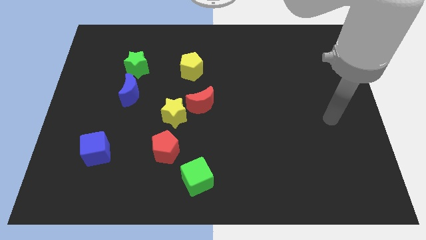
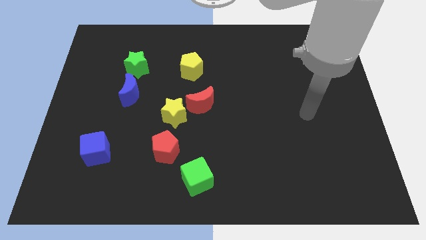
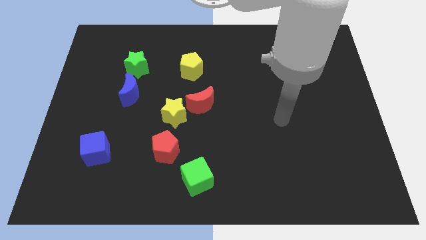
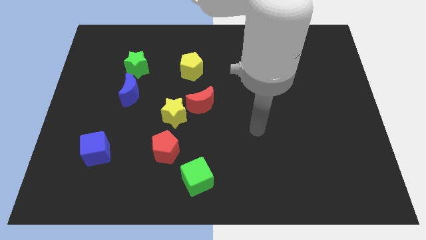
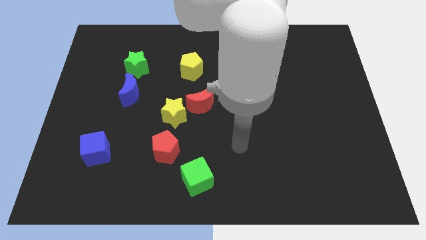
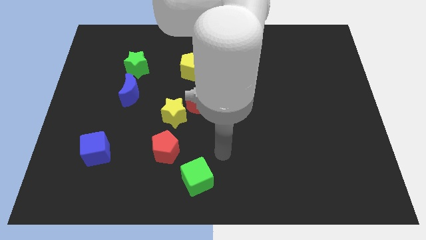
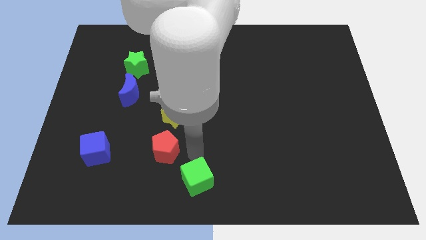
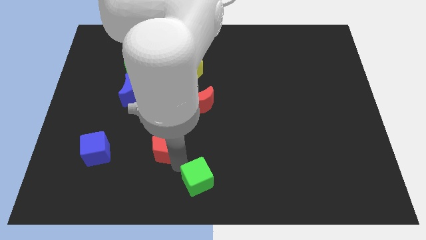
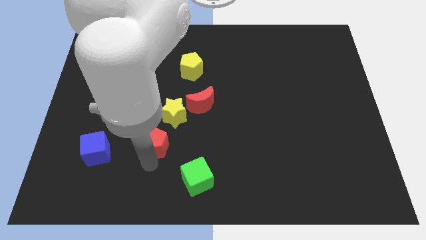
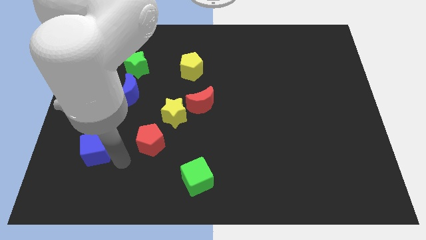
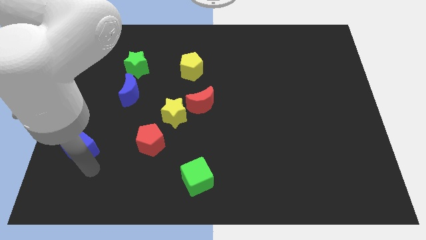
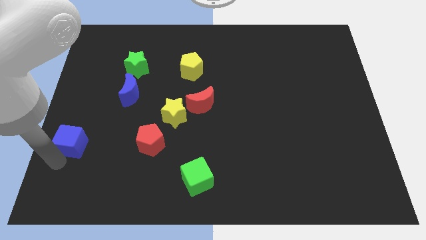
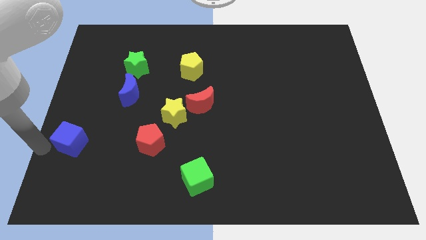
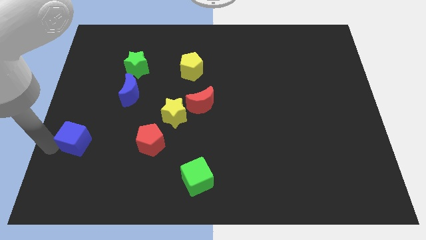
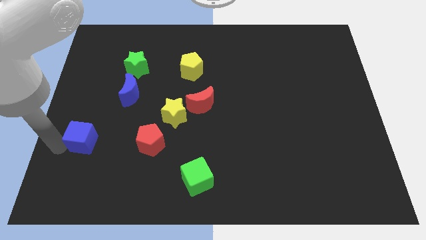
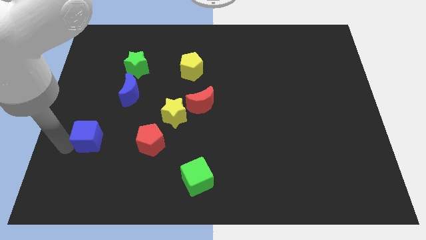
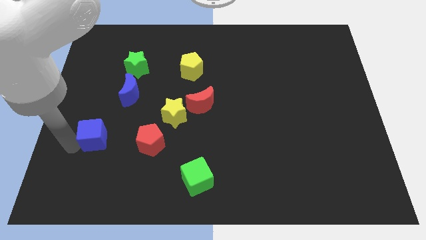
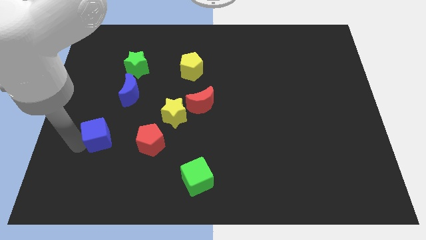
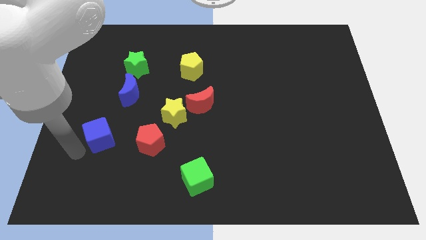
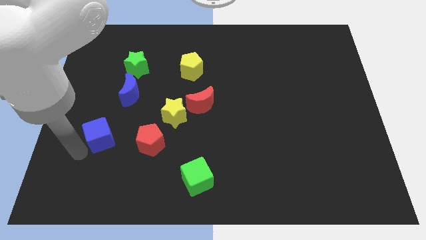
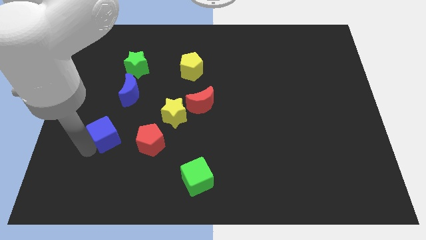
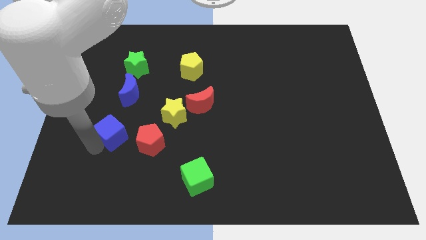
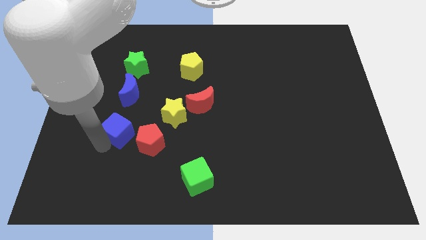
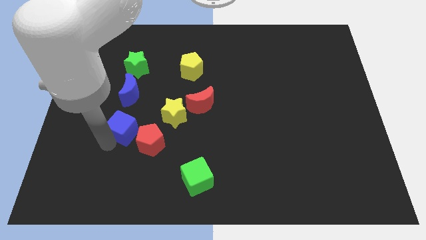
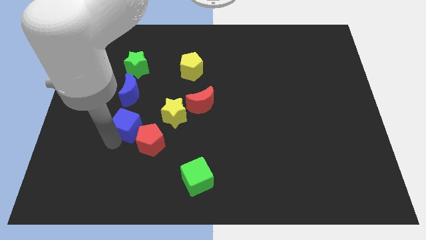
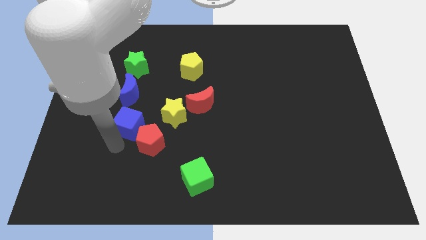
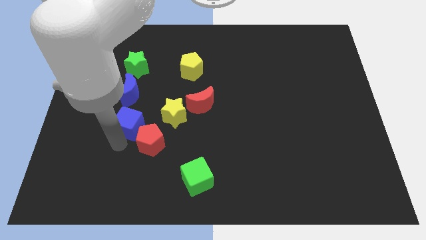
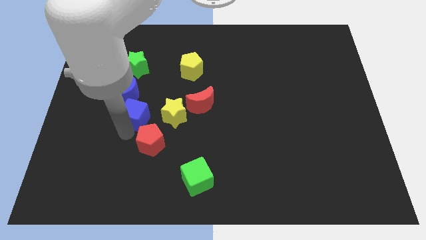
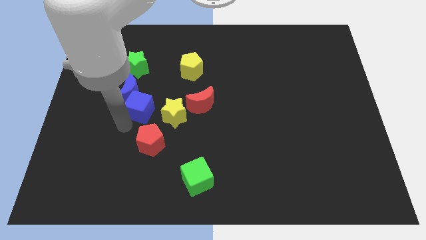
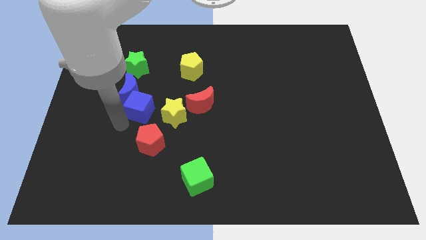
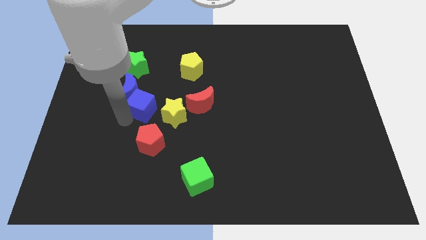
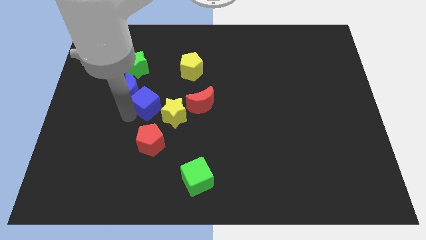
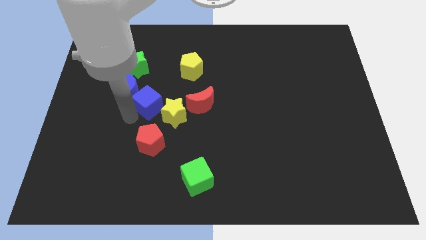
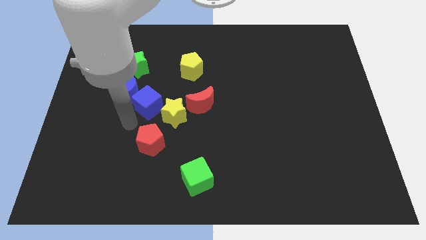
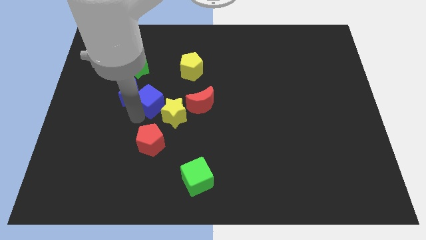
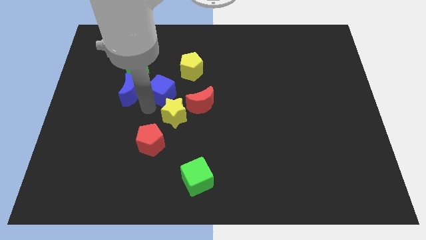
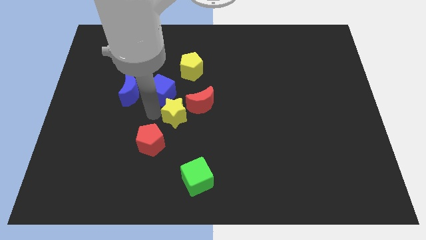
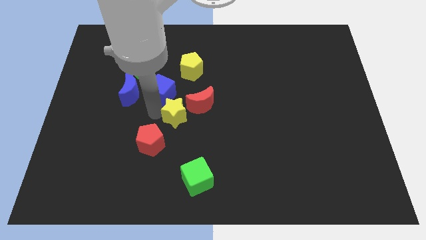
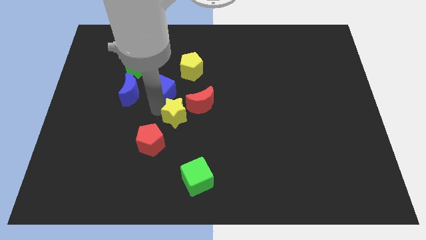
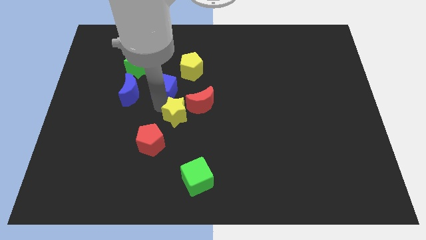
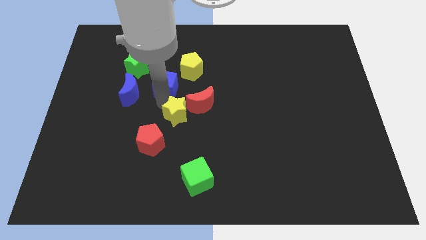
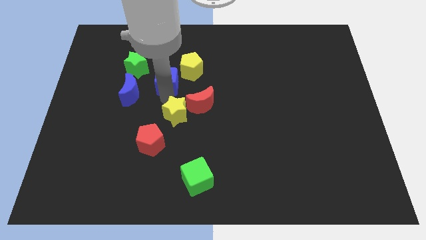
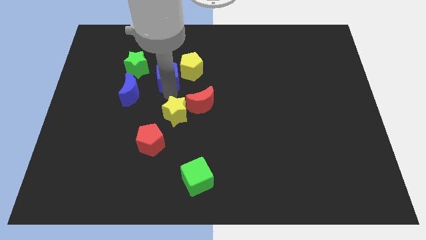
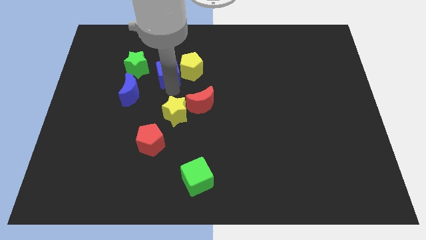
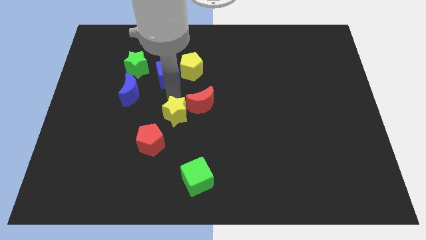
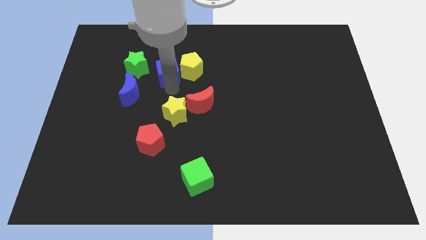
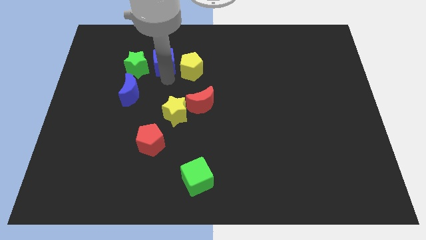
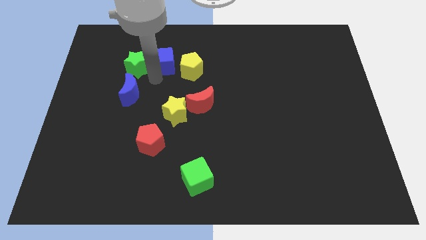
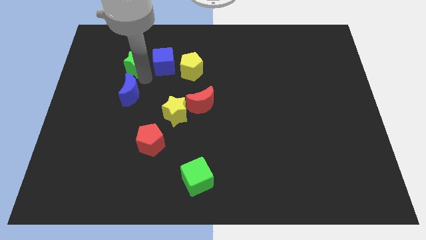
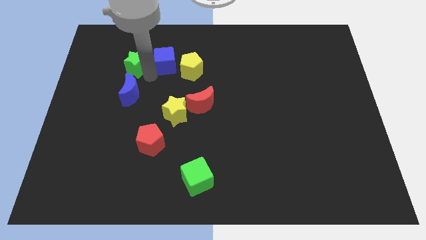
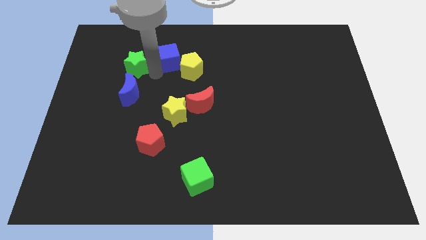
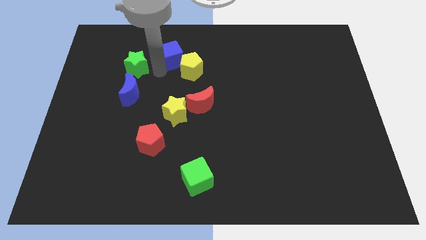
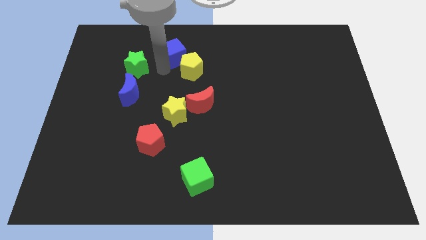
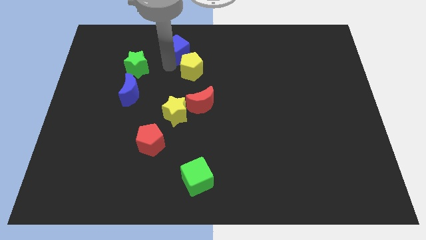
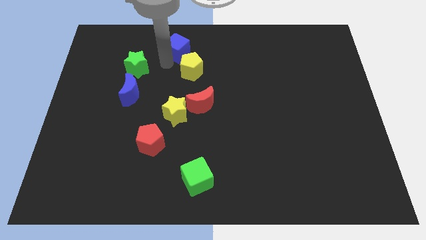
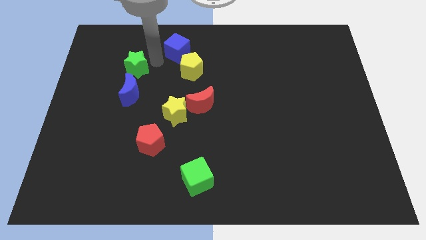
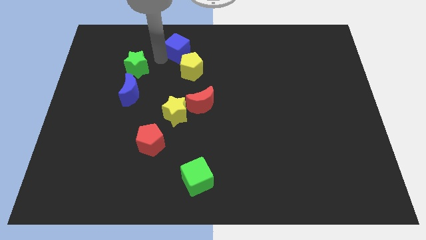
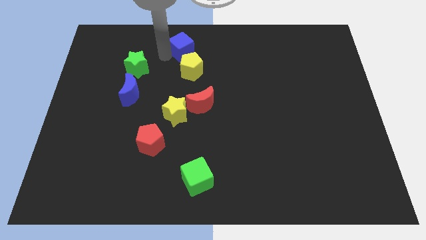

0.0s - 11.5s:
slide the blue cube to the top

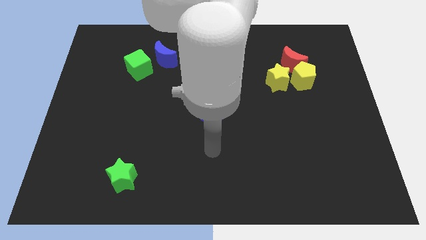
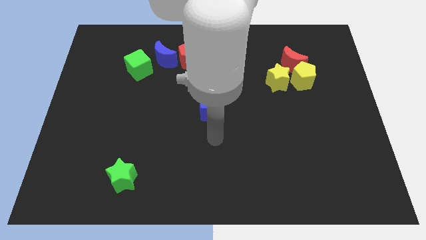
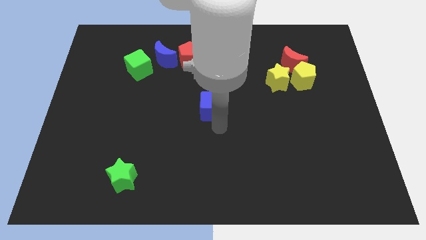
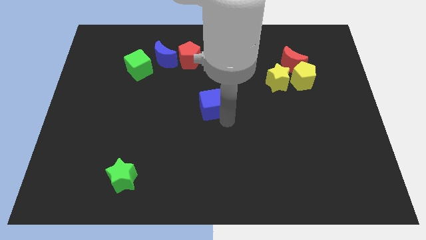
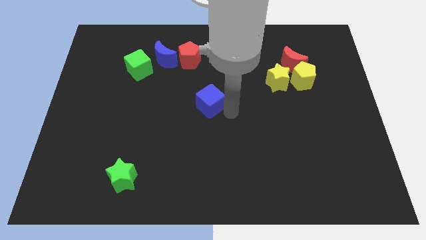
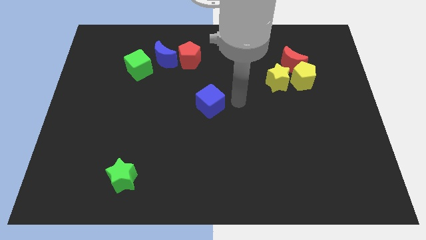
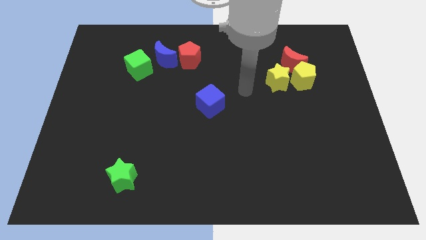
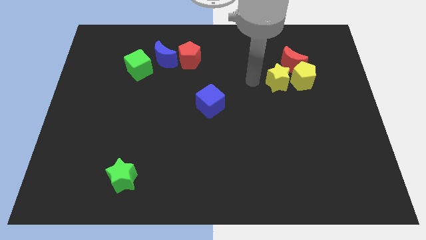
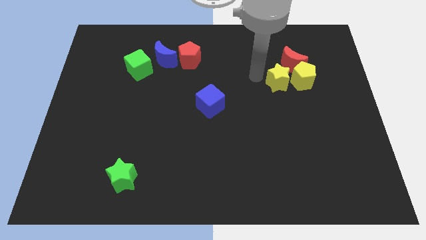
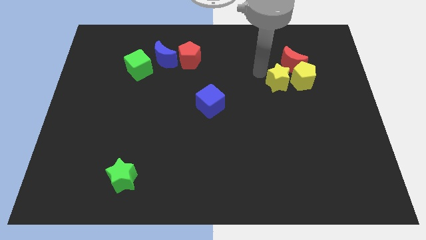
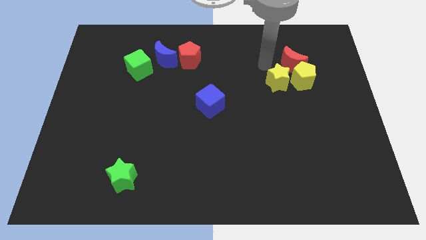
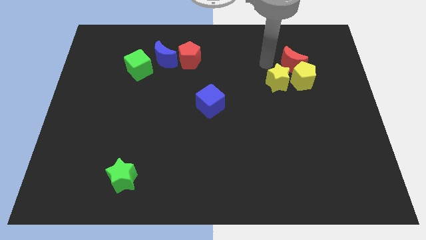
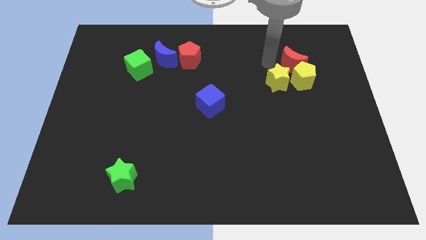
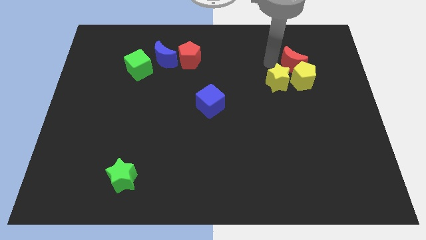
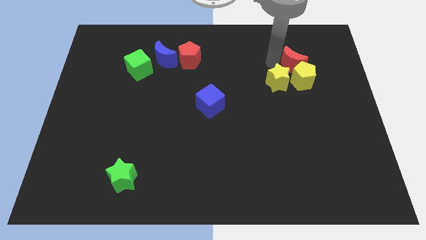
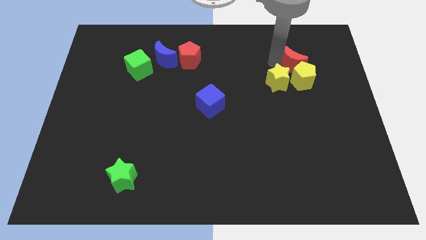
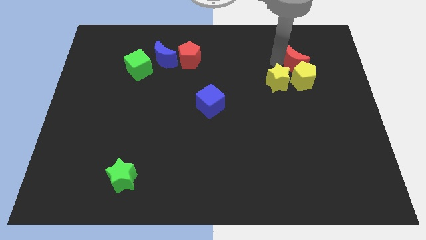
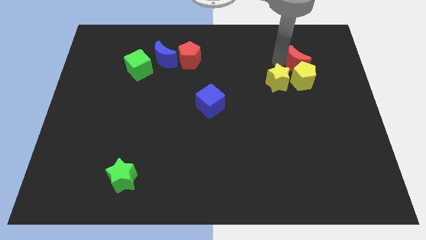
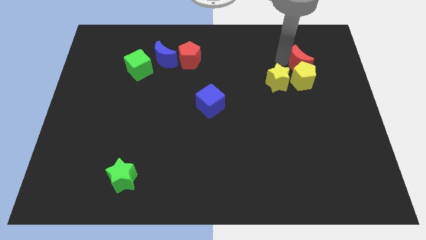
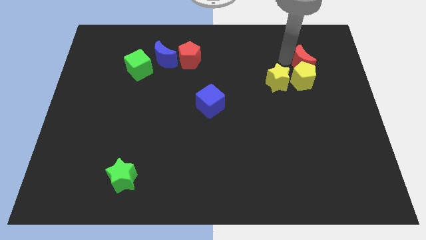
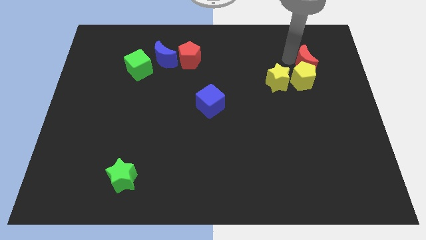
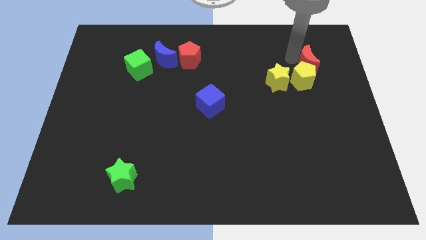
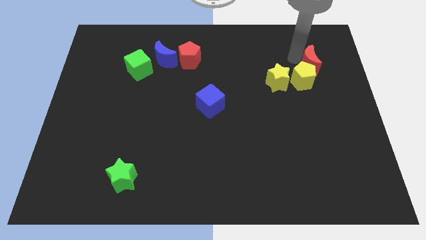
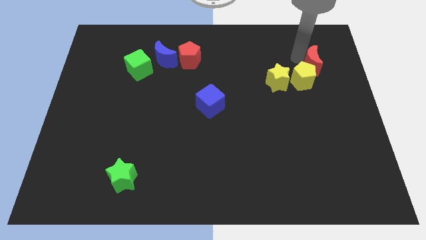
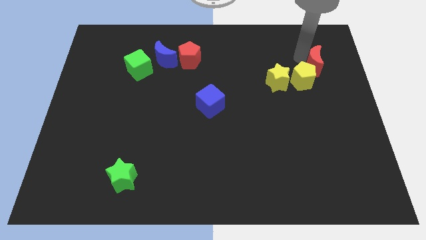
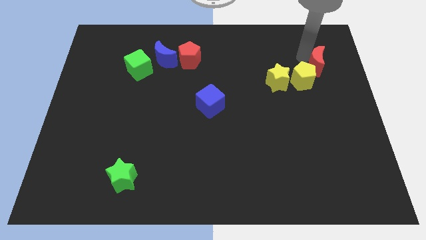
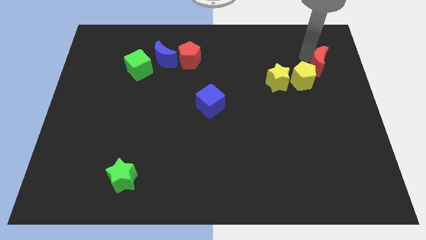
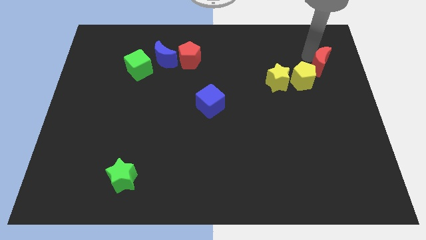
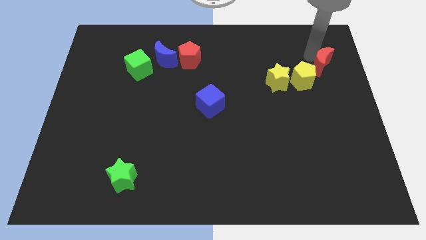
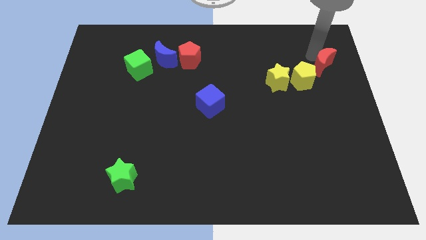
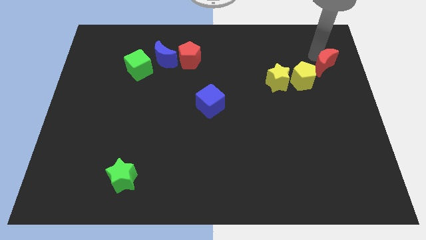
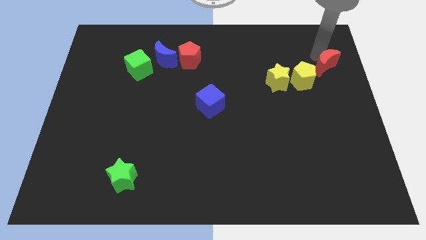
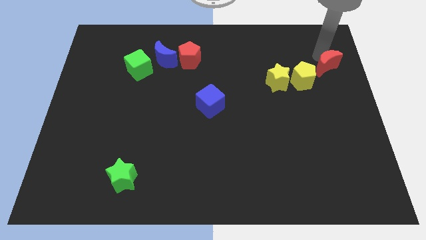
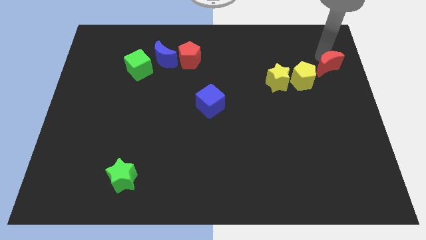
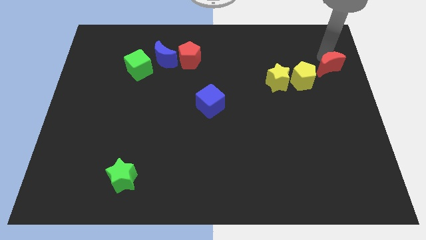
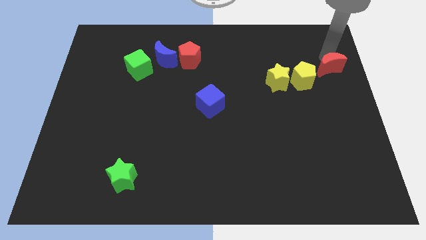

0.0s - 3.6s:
slide the red moon to the center right
